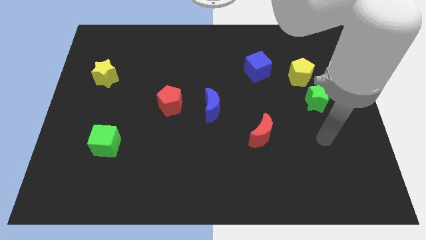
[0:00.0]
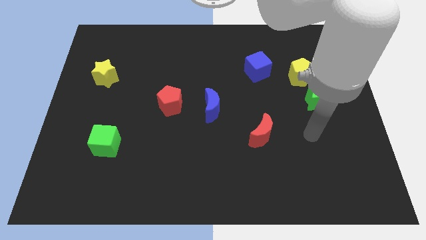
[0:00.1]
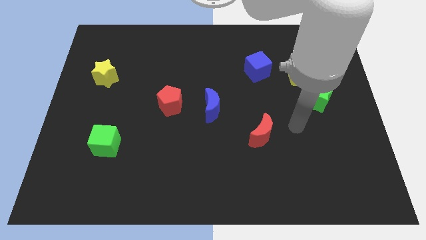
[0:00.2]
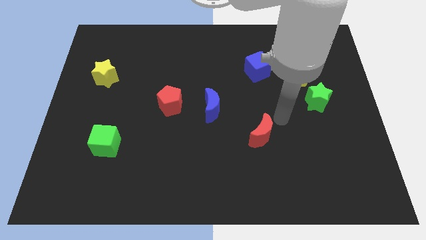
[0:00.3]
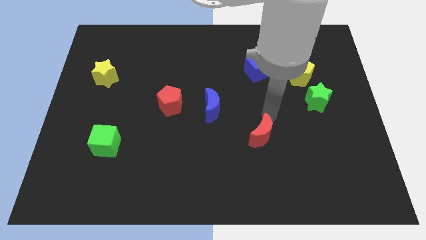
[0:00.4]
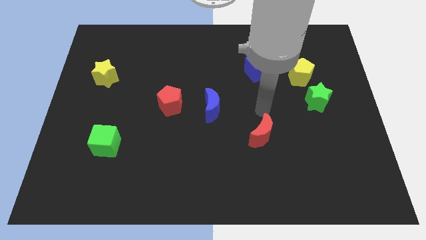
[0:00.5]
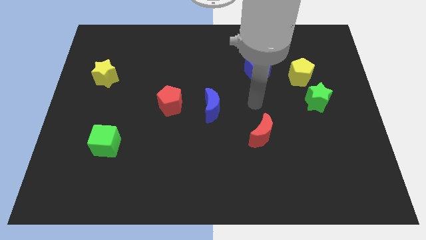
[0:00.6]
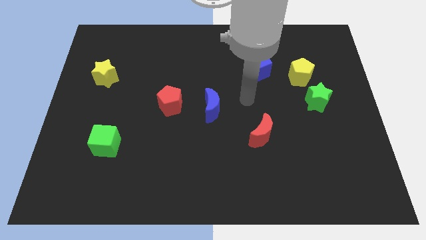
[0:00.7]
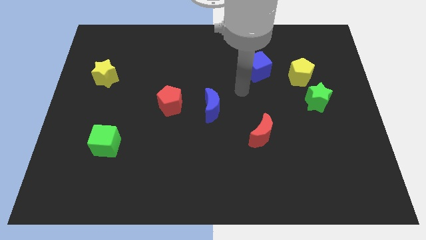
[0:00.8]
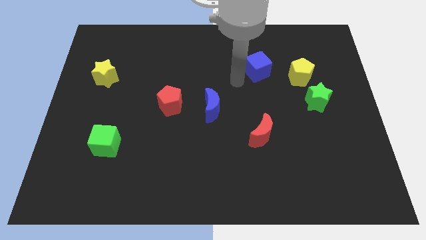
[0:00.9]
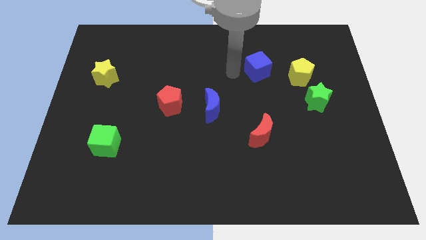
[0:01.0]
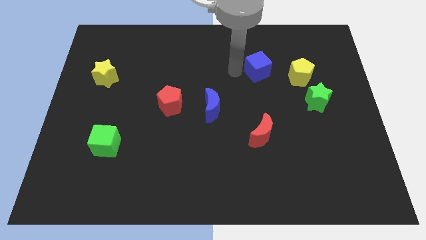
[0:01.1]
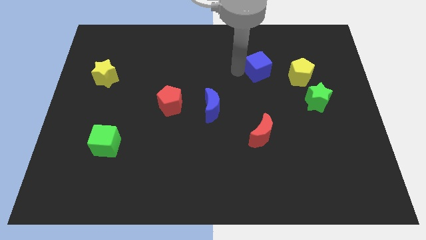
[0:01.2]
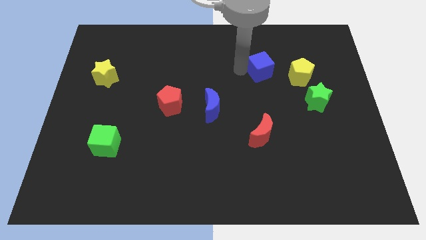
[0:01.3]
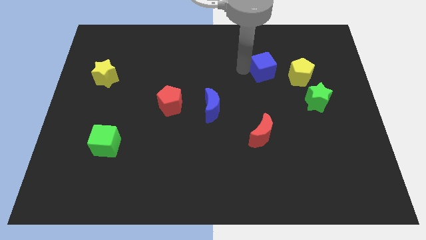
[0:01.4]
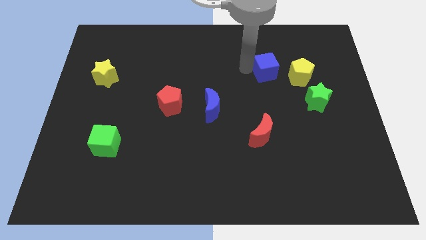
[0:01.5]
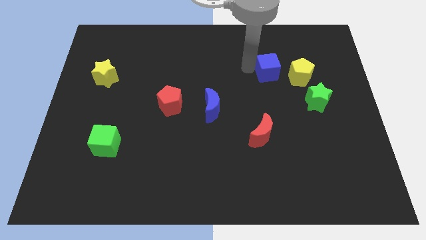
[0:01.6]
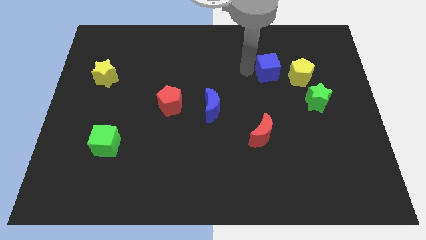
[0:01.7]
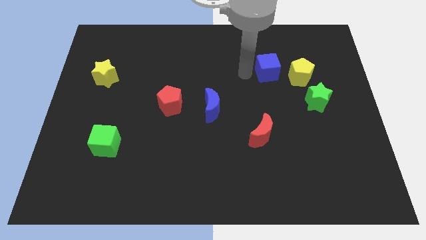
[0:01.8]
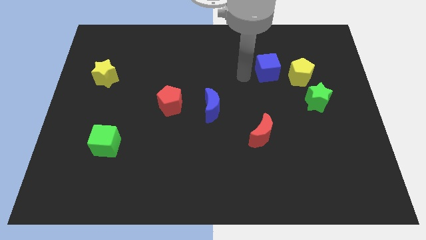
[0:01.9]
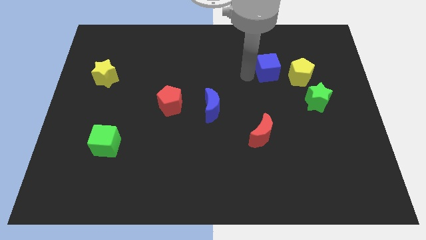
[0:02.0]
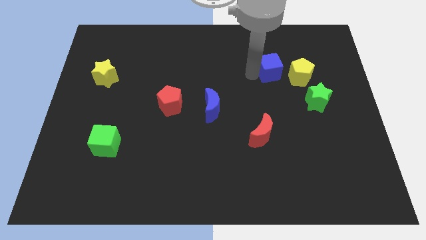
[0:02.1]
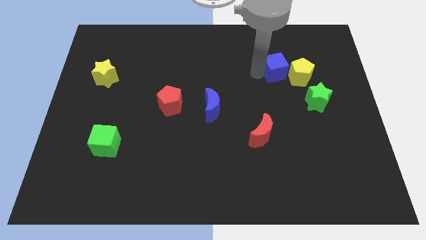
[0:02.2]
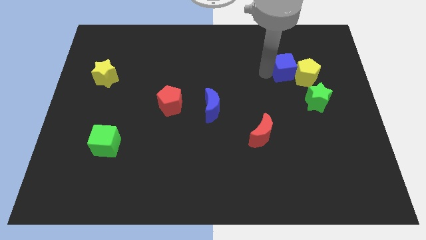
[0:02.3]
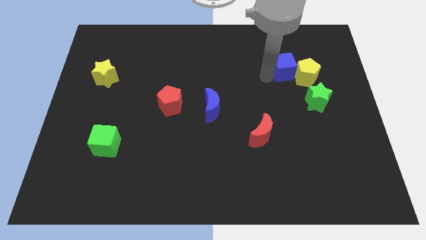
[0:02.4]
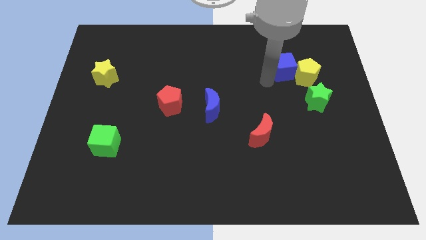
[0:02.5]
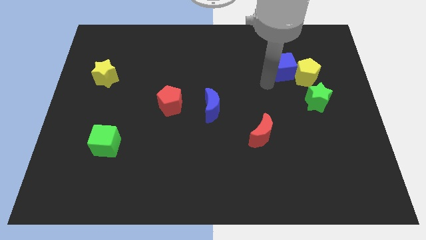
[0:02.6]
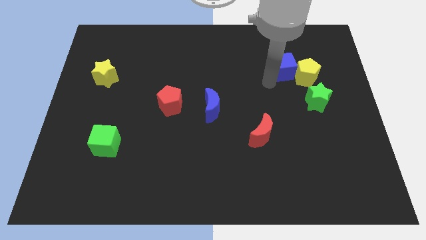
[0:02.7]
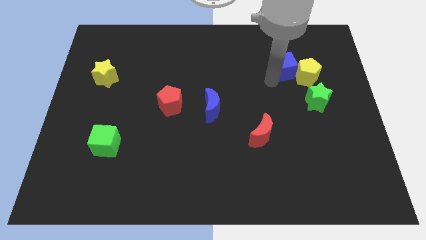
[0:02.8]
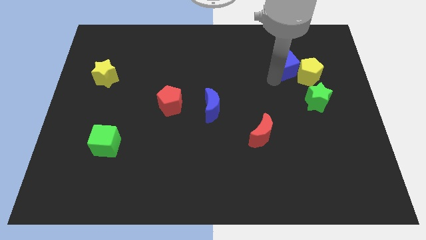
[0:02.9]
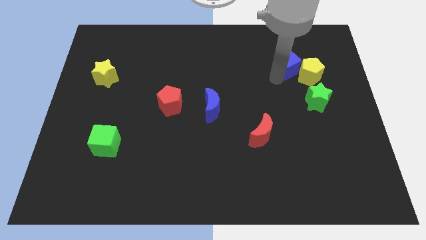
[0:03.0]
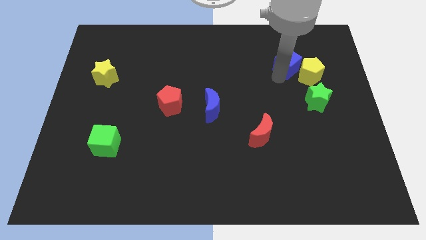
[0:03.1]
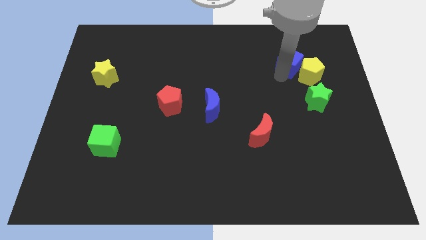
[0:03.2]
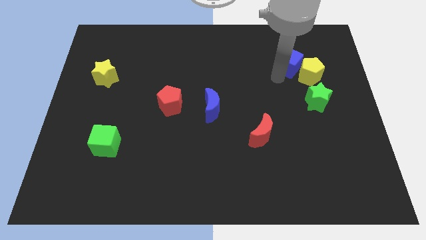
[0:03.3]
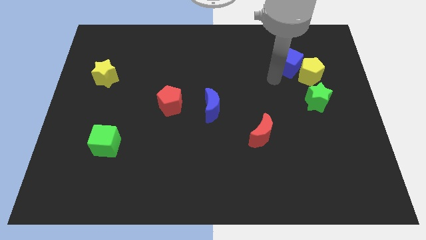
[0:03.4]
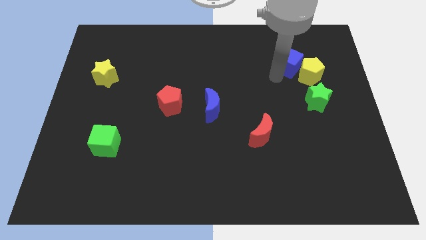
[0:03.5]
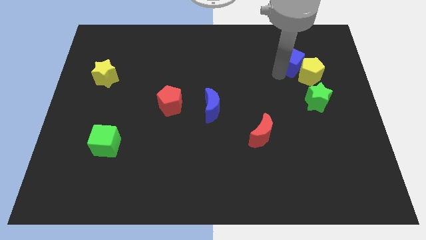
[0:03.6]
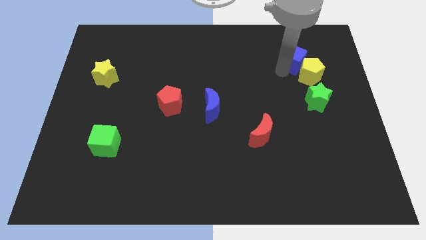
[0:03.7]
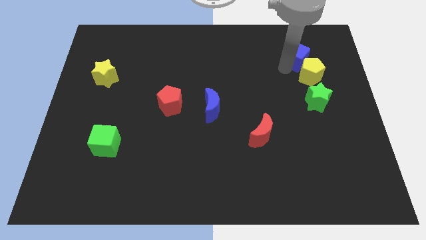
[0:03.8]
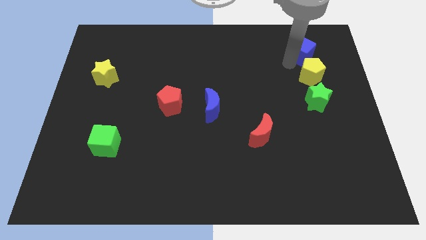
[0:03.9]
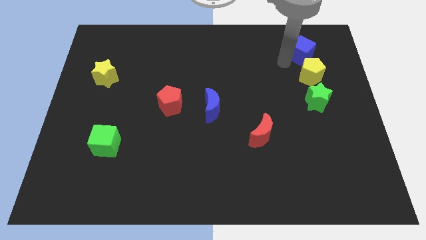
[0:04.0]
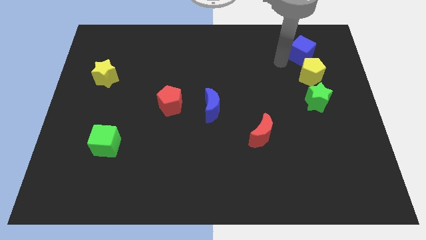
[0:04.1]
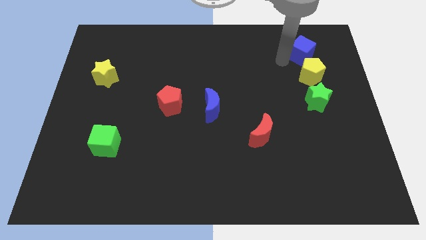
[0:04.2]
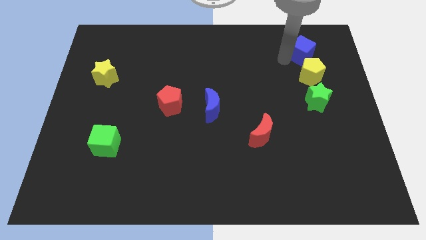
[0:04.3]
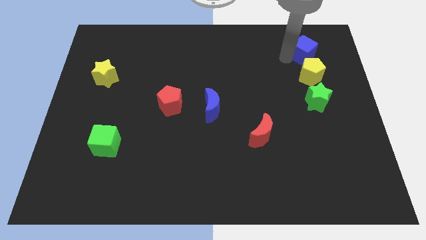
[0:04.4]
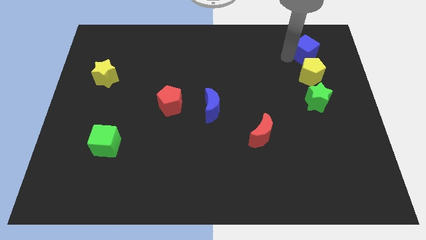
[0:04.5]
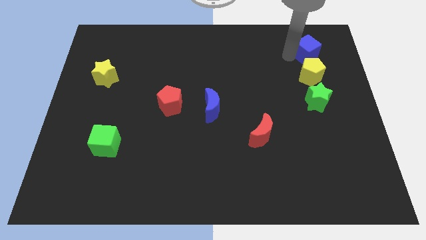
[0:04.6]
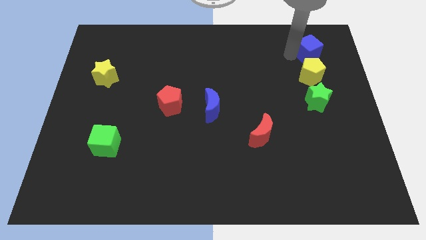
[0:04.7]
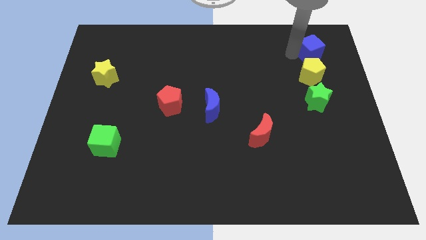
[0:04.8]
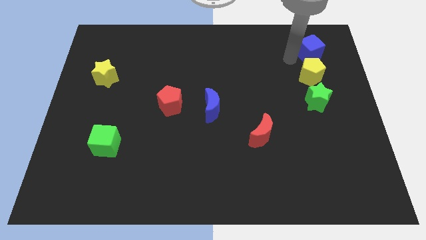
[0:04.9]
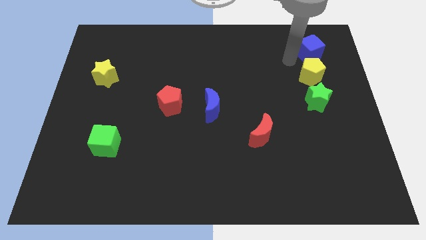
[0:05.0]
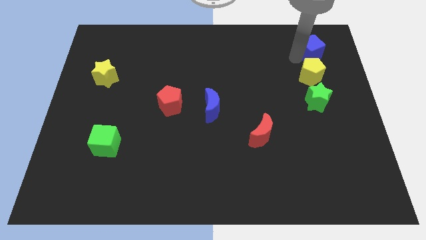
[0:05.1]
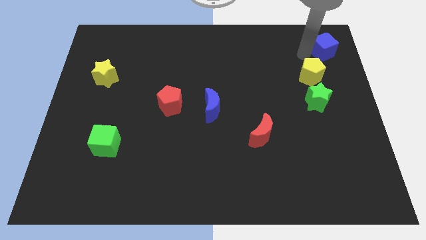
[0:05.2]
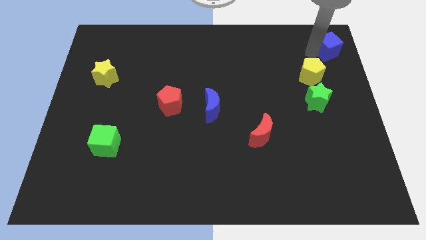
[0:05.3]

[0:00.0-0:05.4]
push the blue cube to the top right of the board
